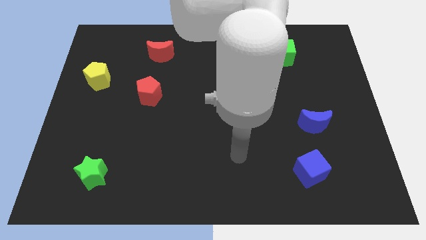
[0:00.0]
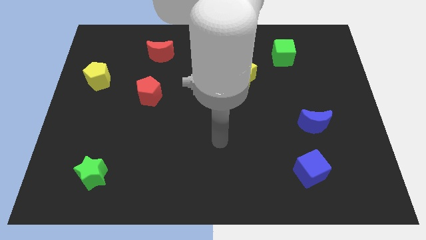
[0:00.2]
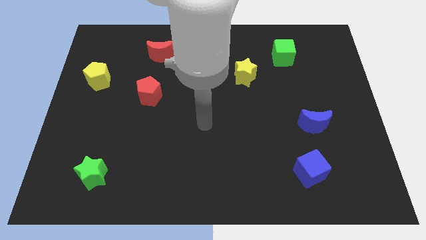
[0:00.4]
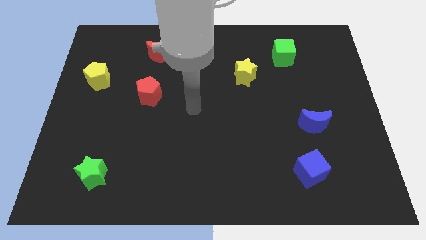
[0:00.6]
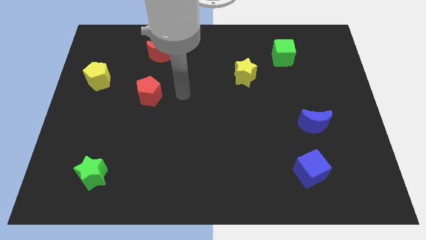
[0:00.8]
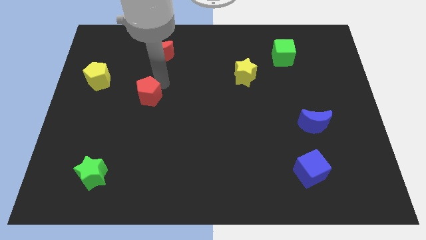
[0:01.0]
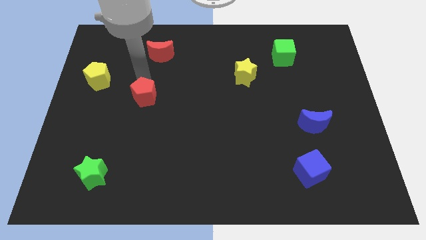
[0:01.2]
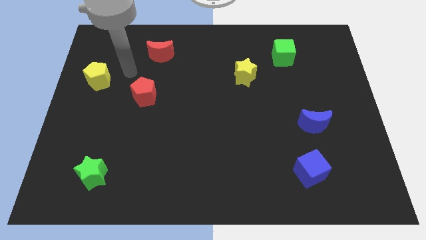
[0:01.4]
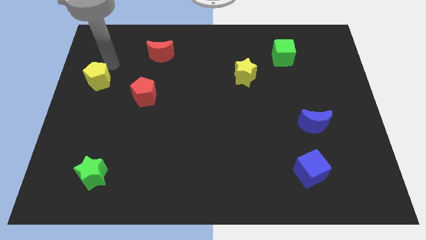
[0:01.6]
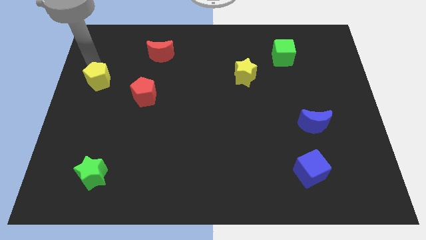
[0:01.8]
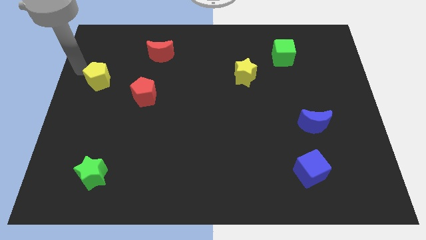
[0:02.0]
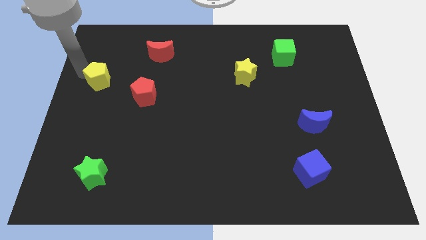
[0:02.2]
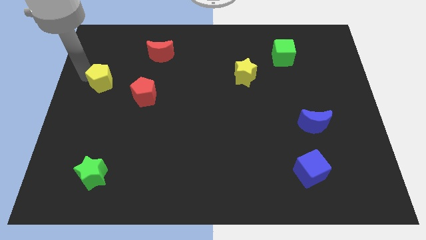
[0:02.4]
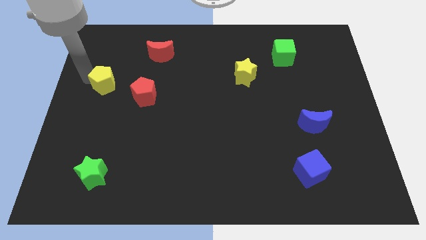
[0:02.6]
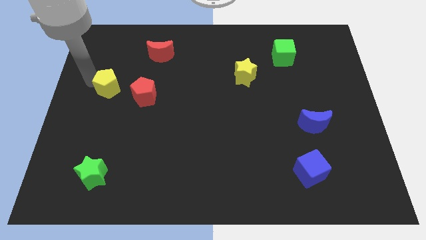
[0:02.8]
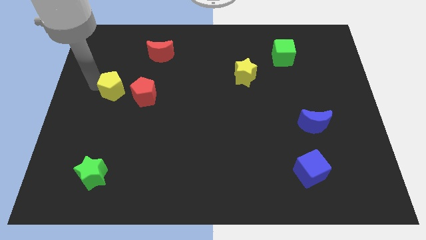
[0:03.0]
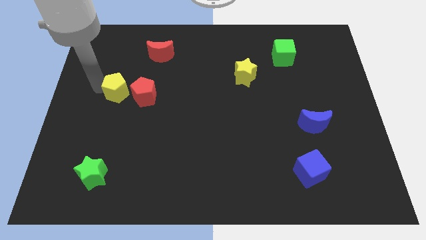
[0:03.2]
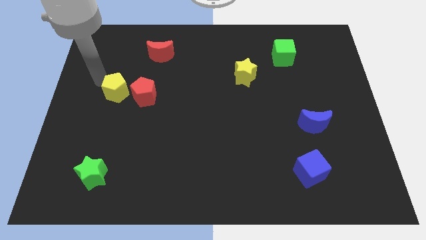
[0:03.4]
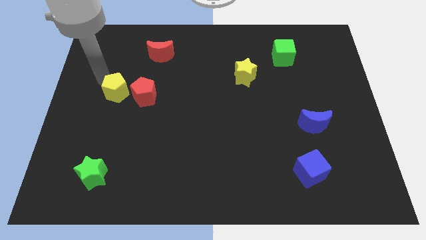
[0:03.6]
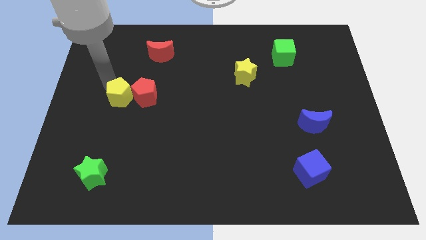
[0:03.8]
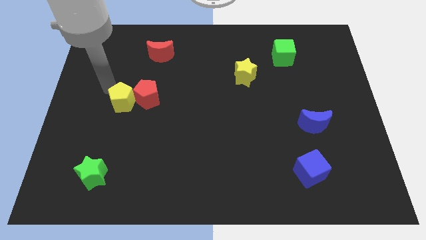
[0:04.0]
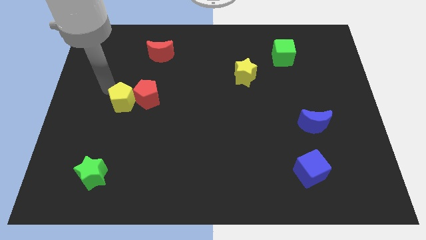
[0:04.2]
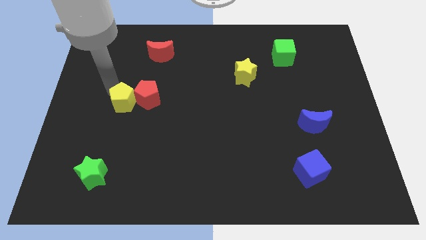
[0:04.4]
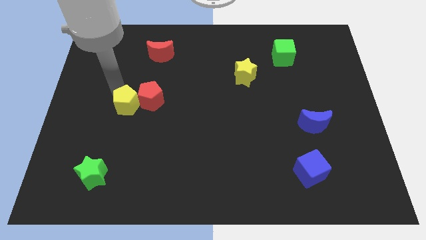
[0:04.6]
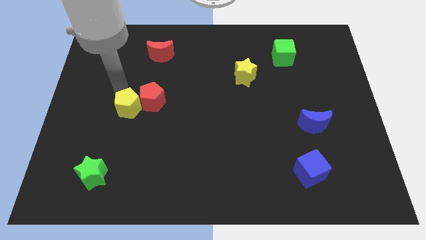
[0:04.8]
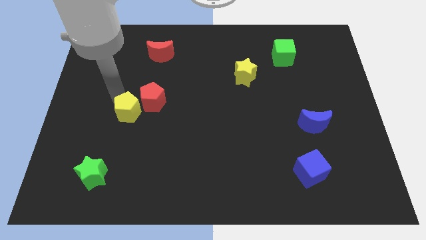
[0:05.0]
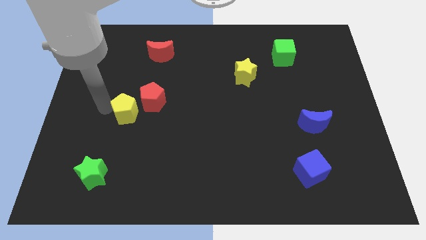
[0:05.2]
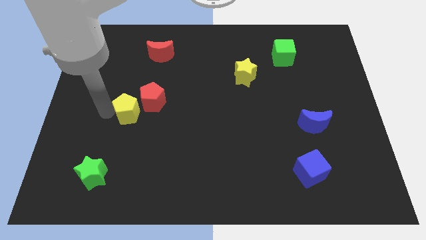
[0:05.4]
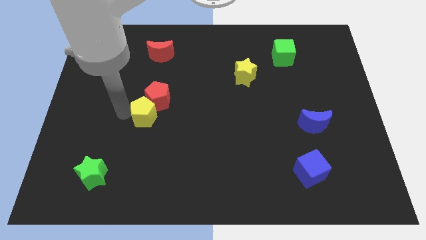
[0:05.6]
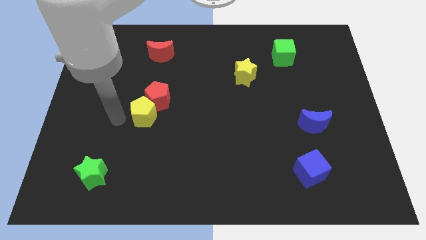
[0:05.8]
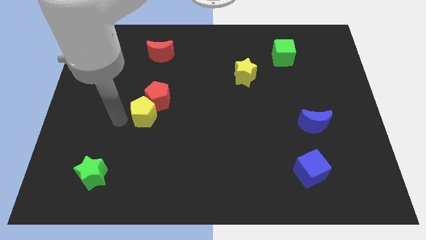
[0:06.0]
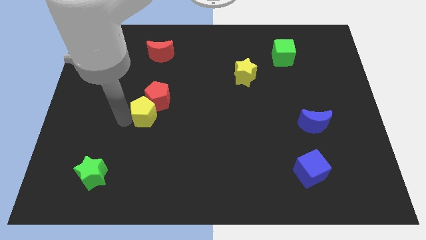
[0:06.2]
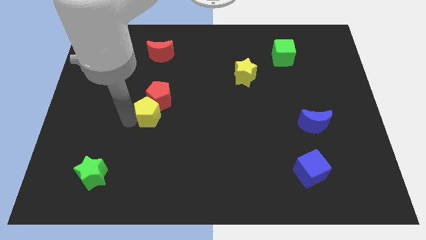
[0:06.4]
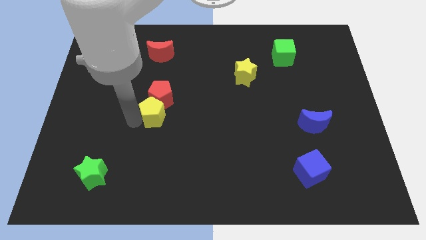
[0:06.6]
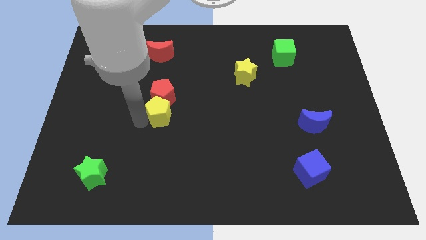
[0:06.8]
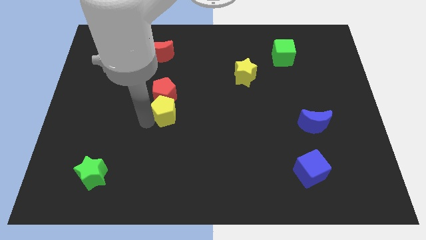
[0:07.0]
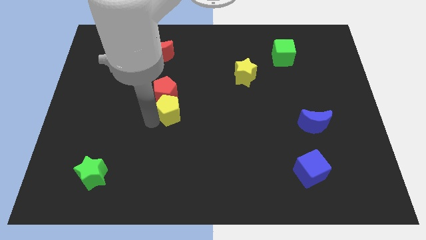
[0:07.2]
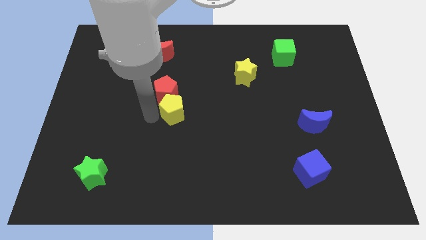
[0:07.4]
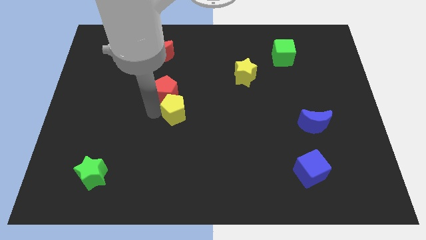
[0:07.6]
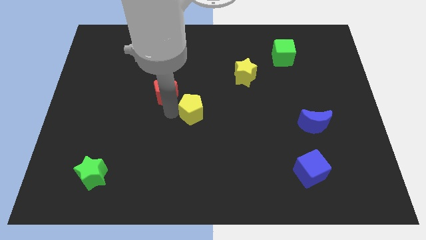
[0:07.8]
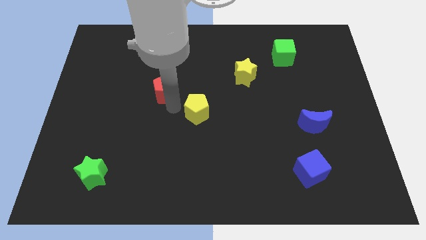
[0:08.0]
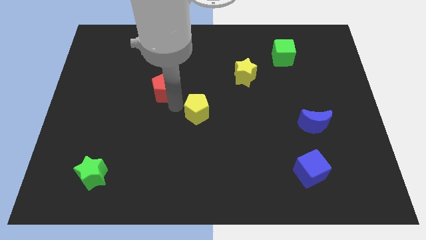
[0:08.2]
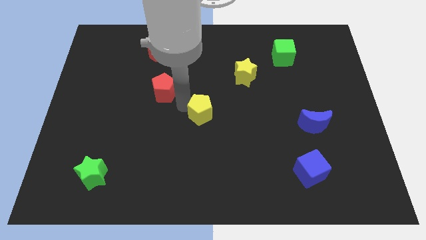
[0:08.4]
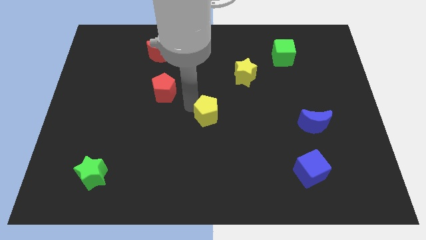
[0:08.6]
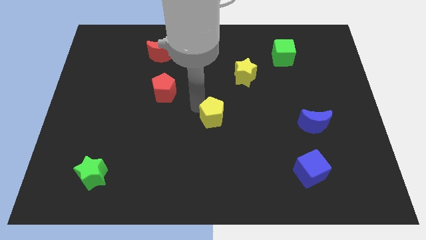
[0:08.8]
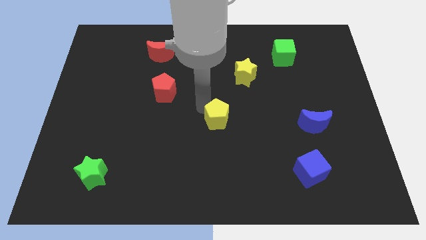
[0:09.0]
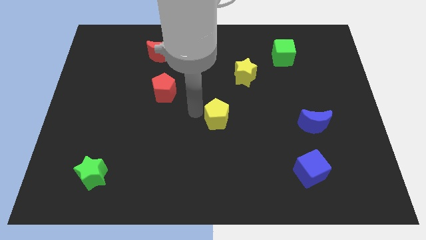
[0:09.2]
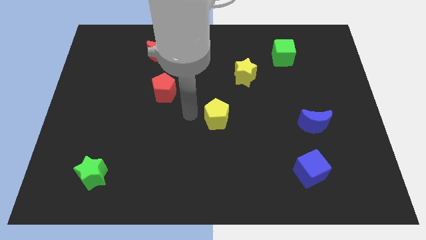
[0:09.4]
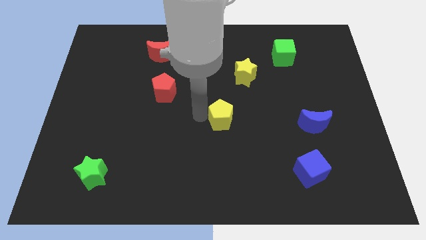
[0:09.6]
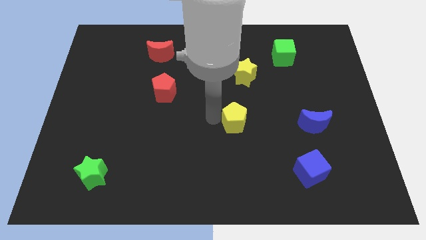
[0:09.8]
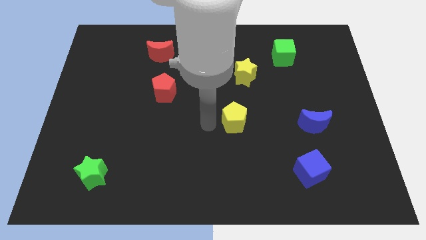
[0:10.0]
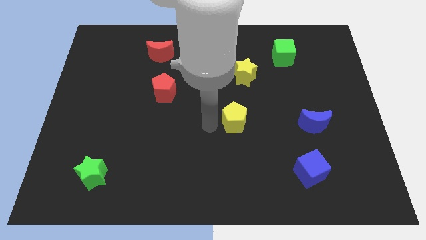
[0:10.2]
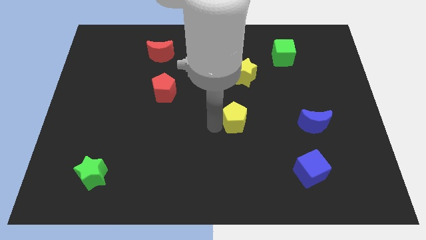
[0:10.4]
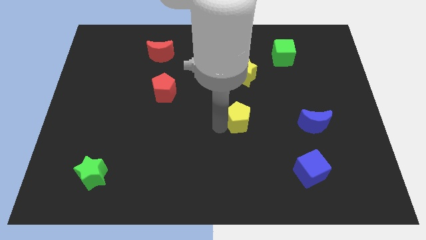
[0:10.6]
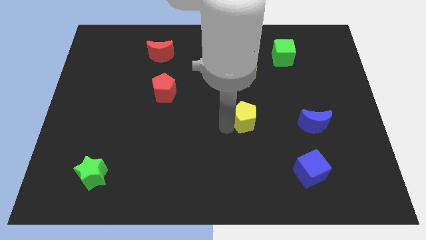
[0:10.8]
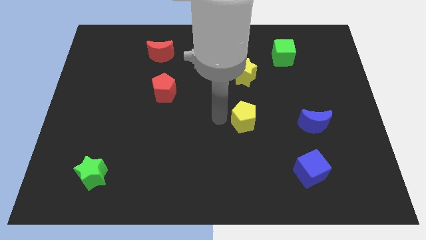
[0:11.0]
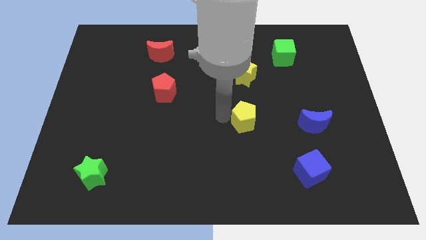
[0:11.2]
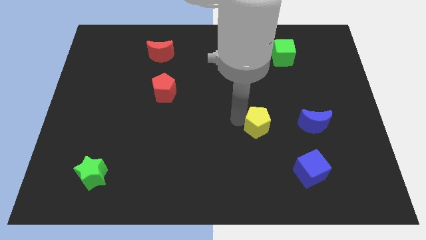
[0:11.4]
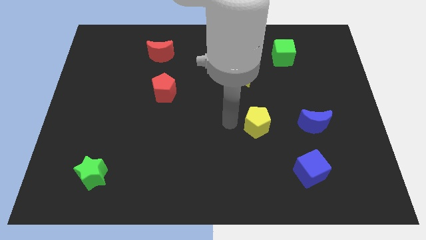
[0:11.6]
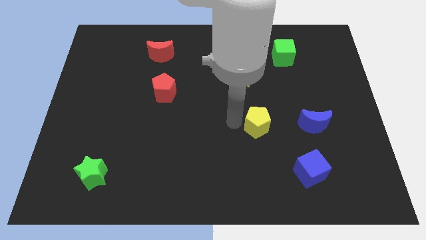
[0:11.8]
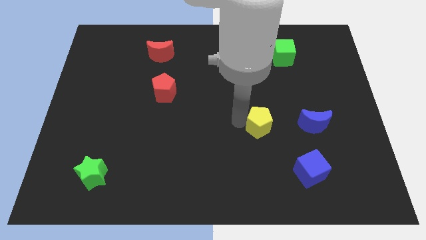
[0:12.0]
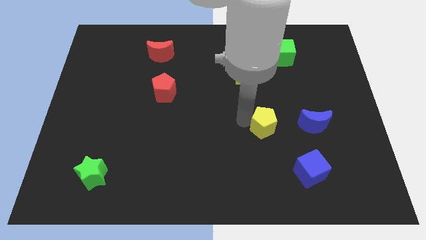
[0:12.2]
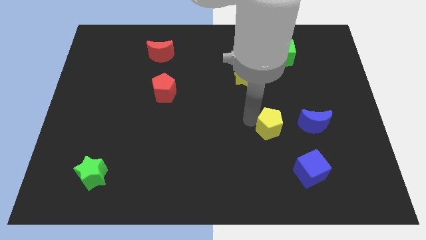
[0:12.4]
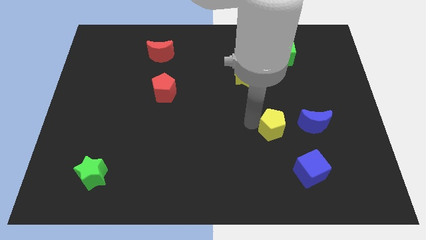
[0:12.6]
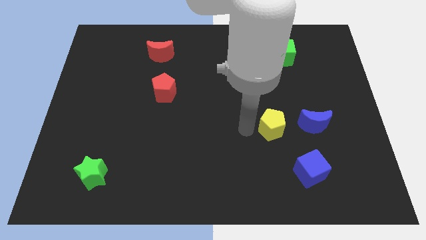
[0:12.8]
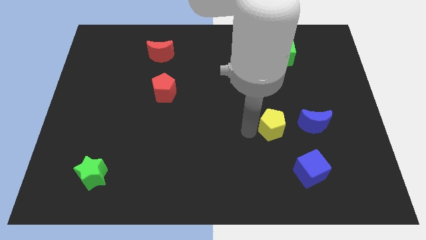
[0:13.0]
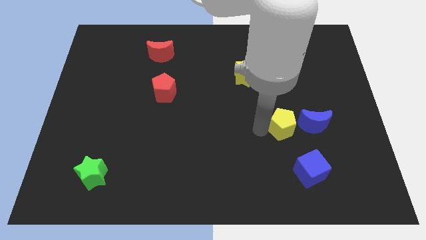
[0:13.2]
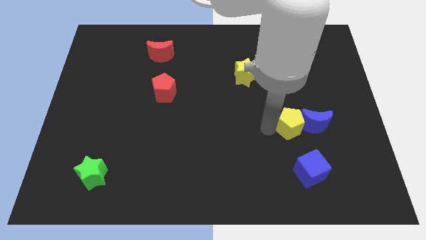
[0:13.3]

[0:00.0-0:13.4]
push the yellow pentagon towards the blue moon

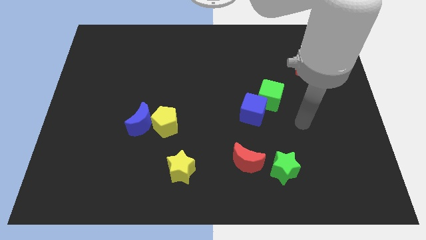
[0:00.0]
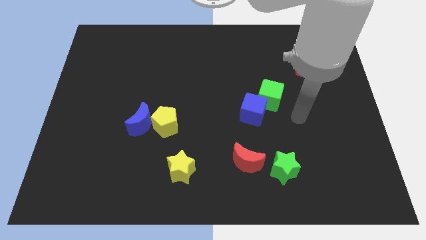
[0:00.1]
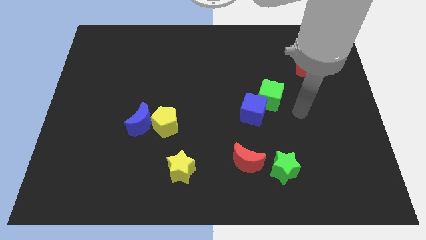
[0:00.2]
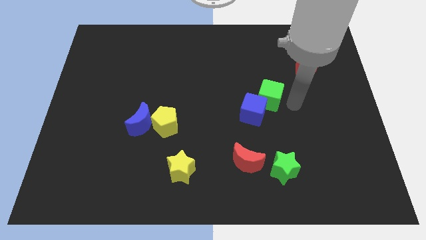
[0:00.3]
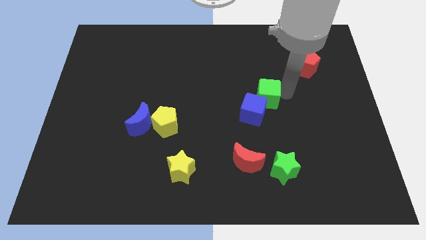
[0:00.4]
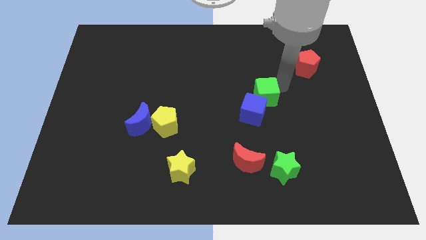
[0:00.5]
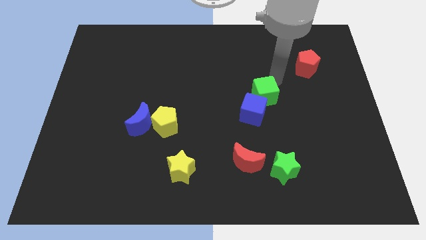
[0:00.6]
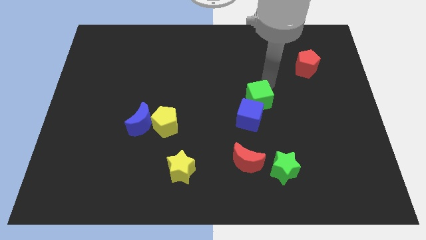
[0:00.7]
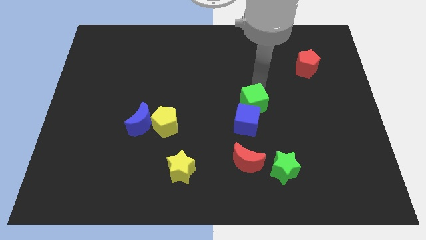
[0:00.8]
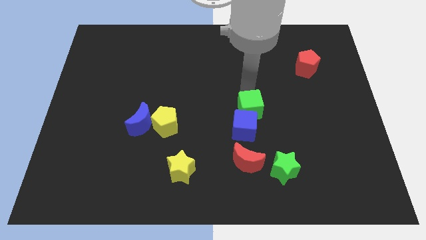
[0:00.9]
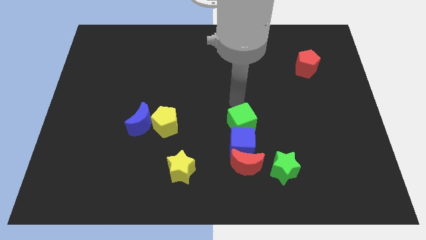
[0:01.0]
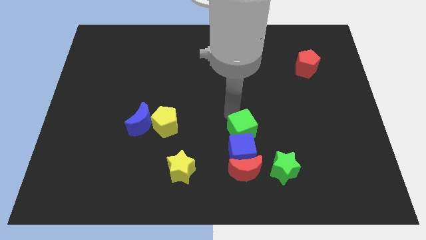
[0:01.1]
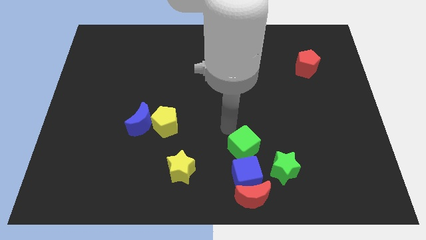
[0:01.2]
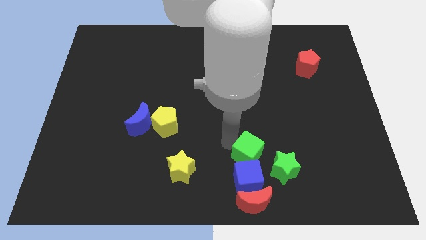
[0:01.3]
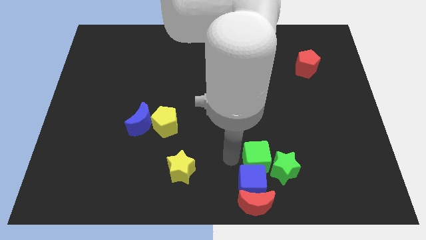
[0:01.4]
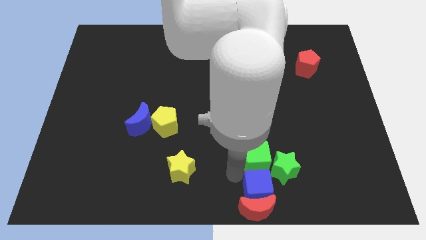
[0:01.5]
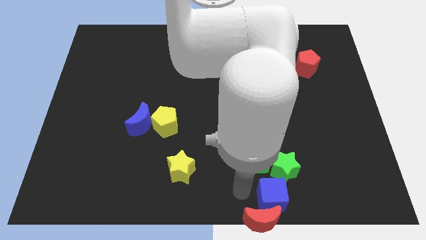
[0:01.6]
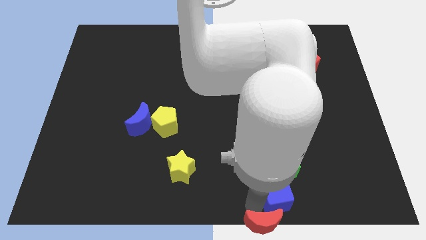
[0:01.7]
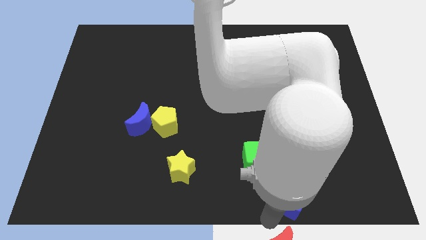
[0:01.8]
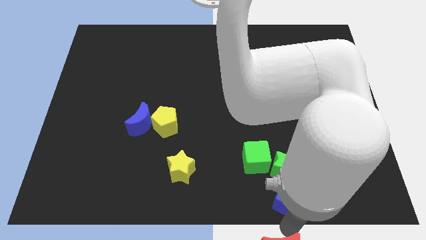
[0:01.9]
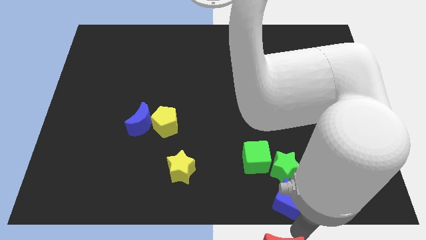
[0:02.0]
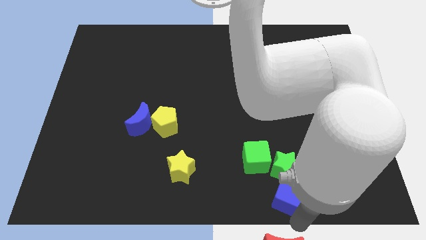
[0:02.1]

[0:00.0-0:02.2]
move the blue cube to the green star
